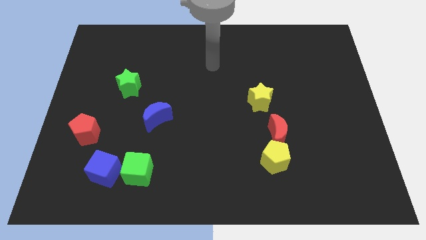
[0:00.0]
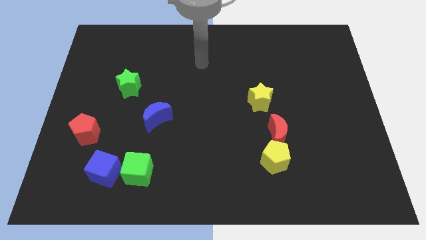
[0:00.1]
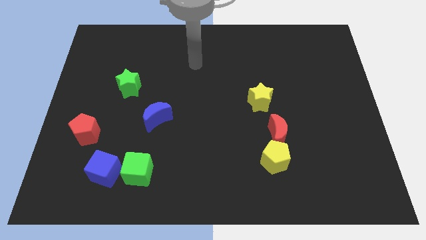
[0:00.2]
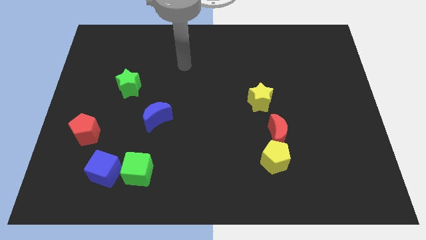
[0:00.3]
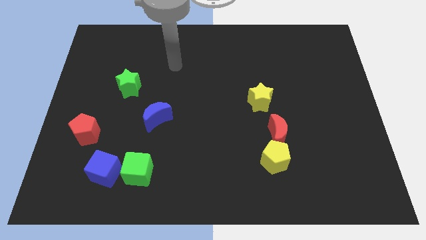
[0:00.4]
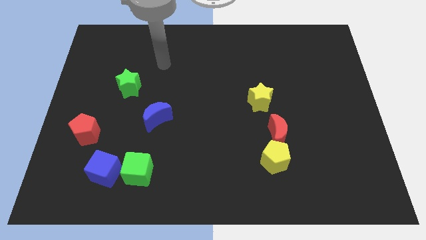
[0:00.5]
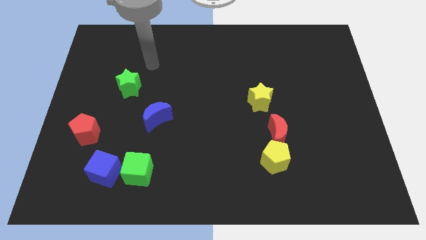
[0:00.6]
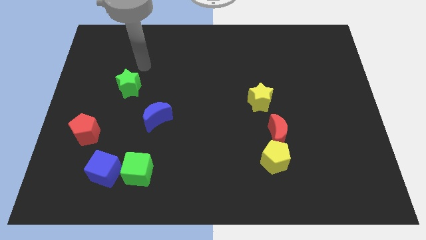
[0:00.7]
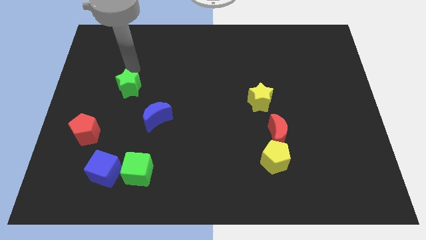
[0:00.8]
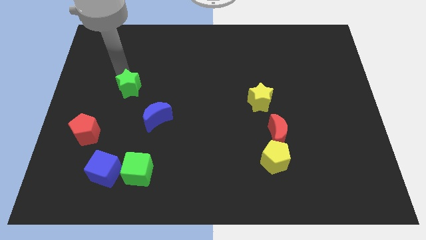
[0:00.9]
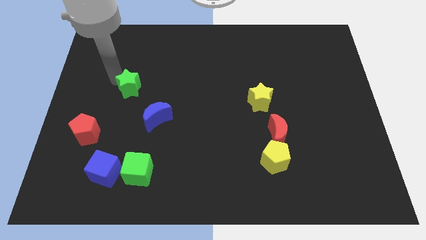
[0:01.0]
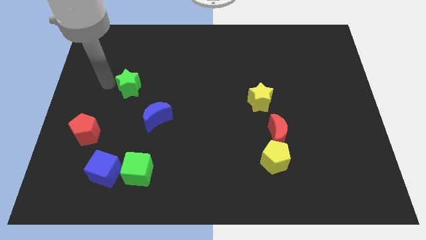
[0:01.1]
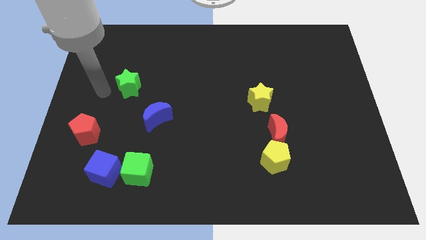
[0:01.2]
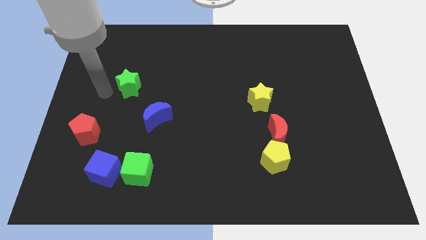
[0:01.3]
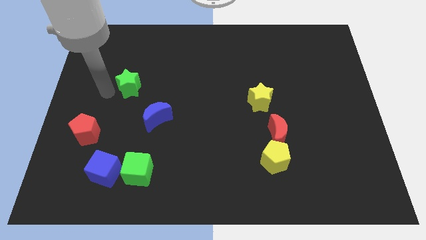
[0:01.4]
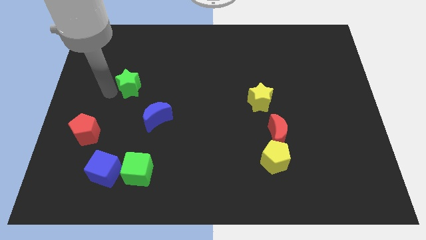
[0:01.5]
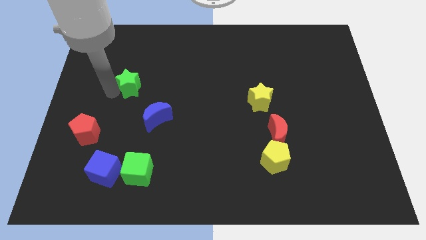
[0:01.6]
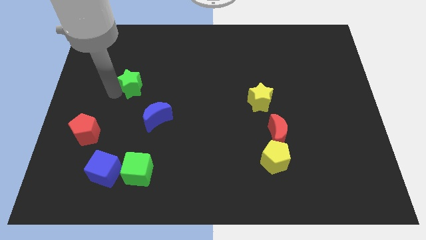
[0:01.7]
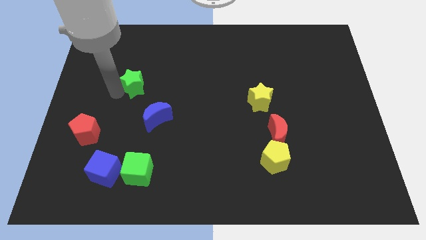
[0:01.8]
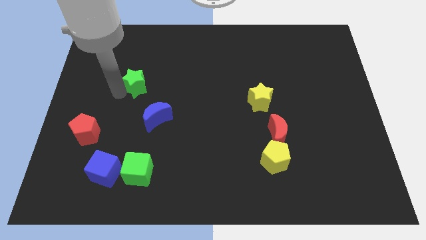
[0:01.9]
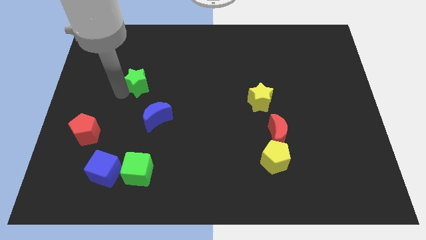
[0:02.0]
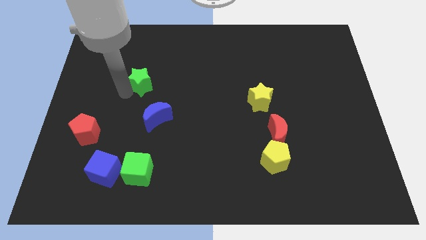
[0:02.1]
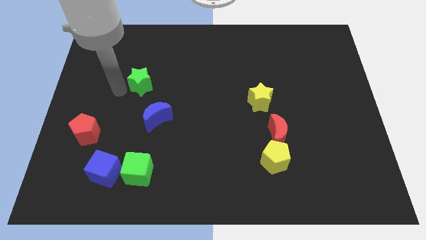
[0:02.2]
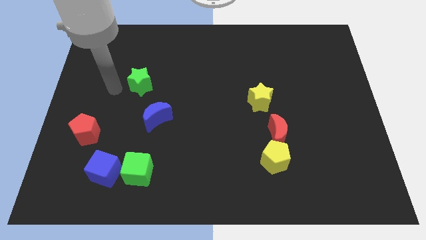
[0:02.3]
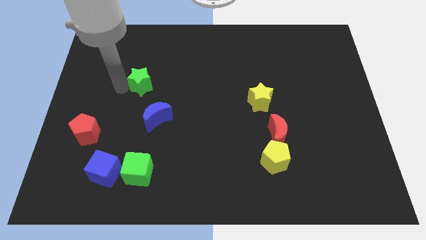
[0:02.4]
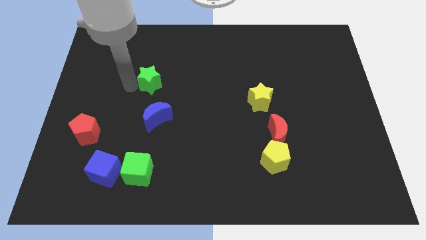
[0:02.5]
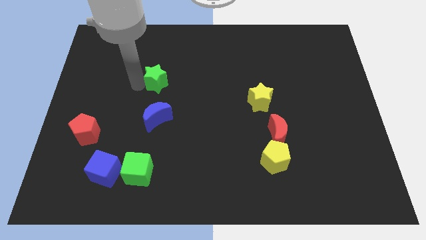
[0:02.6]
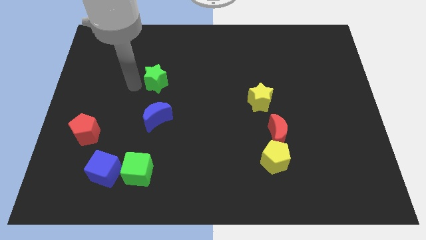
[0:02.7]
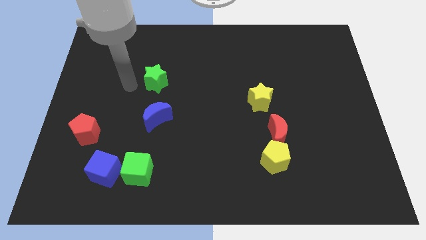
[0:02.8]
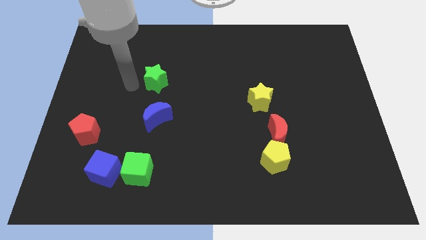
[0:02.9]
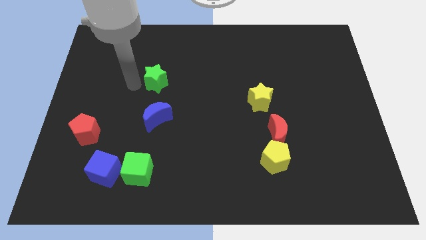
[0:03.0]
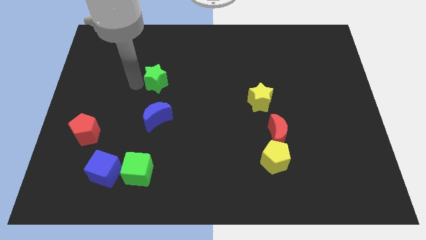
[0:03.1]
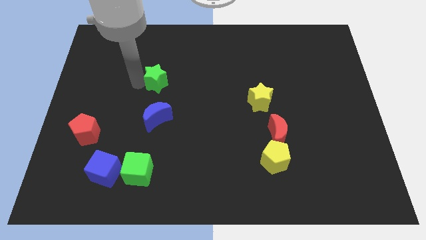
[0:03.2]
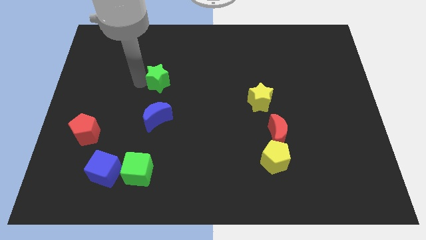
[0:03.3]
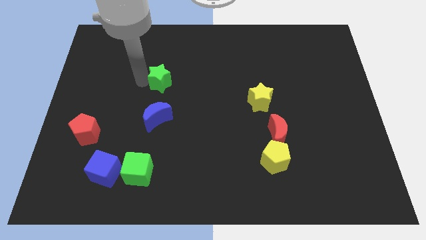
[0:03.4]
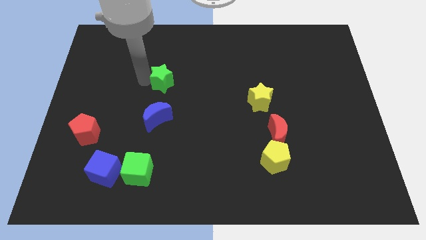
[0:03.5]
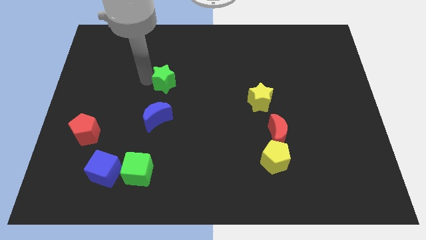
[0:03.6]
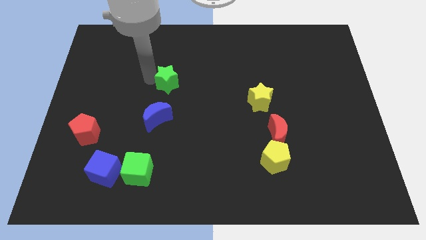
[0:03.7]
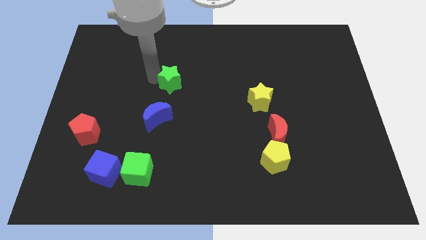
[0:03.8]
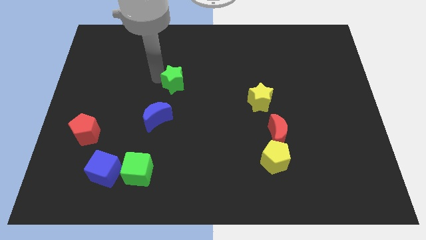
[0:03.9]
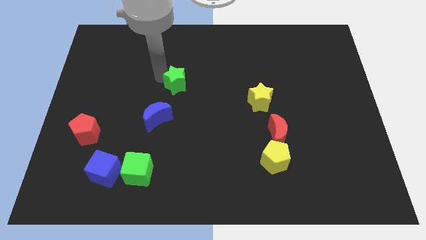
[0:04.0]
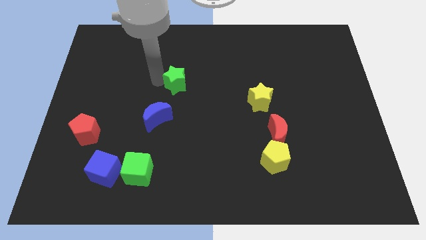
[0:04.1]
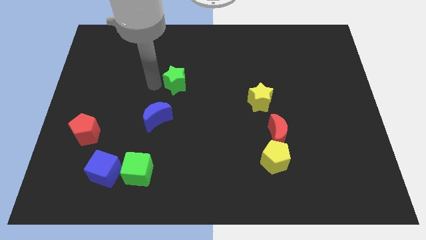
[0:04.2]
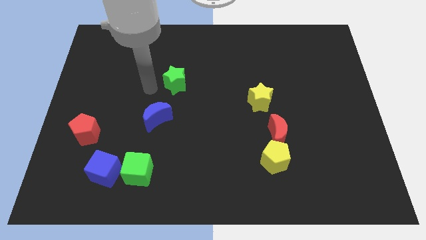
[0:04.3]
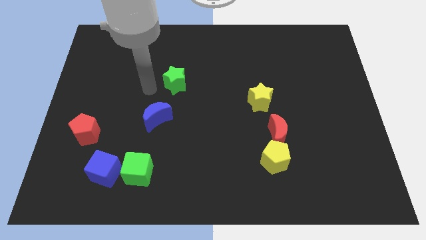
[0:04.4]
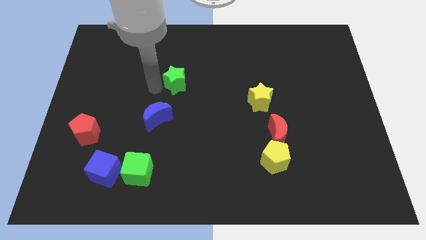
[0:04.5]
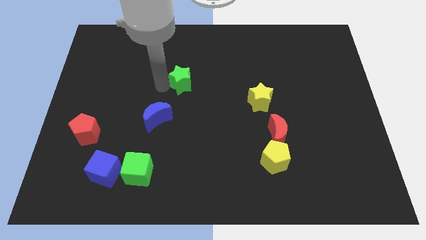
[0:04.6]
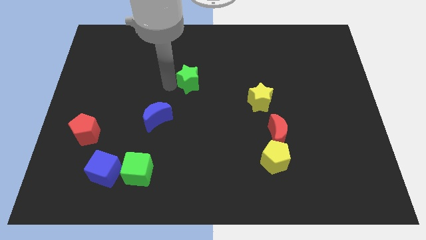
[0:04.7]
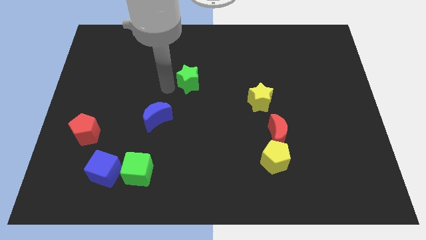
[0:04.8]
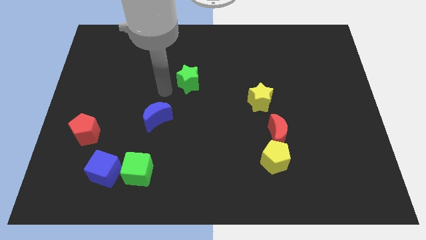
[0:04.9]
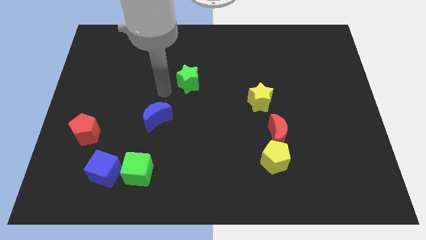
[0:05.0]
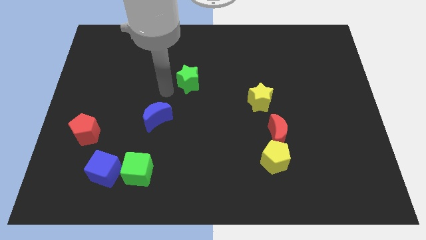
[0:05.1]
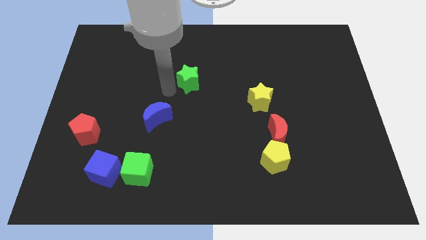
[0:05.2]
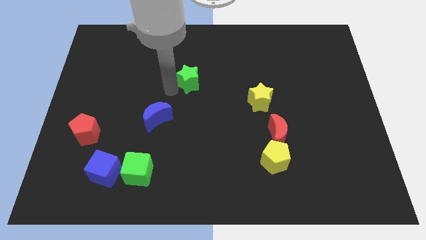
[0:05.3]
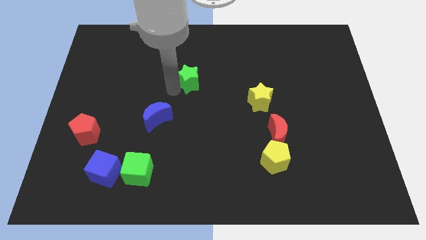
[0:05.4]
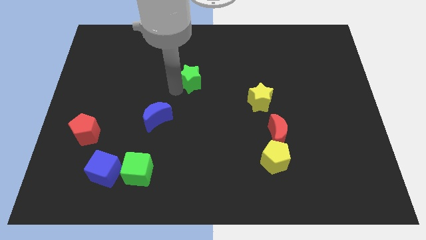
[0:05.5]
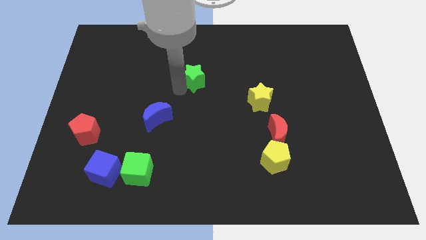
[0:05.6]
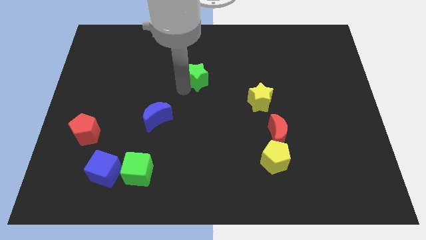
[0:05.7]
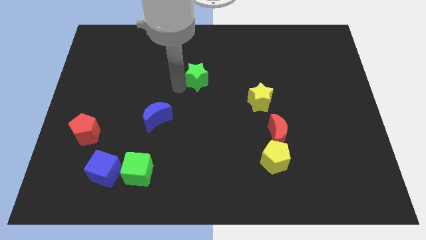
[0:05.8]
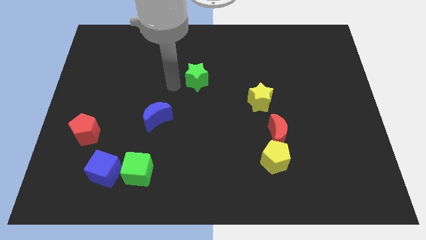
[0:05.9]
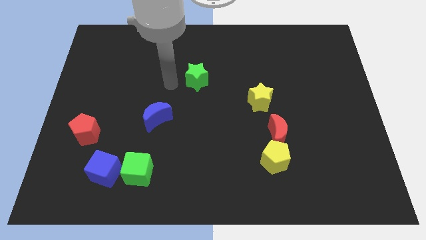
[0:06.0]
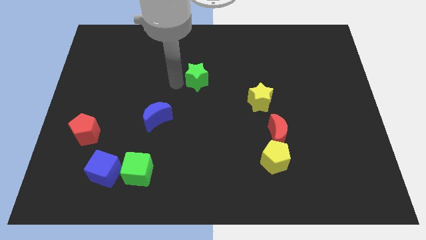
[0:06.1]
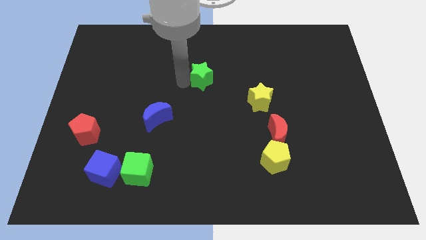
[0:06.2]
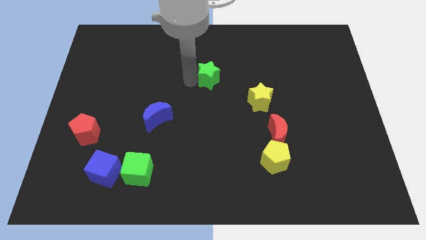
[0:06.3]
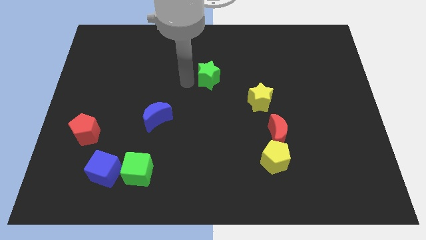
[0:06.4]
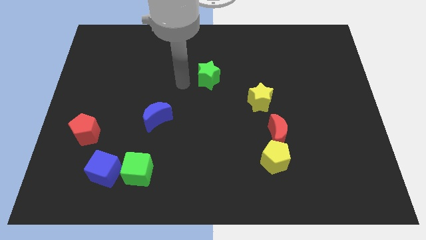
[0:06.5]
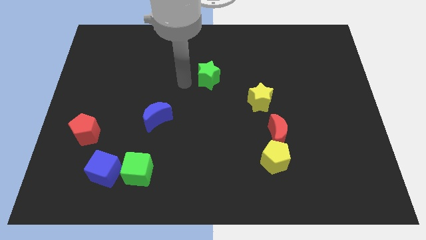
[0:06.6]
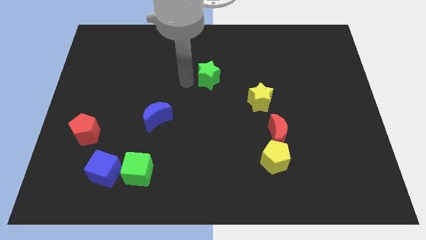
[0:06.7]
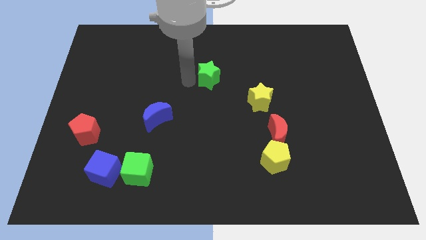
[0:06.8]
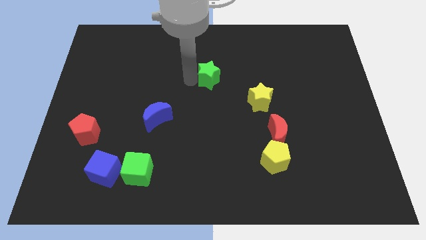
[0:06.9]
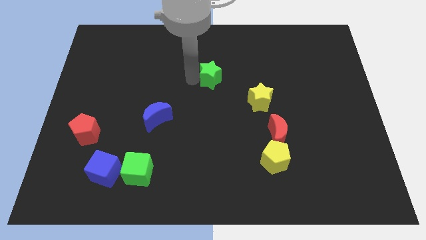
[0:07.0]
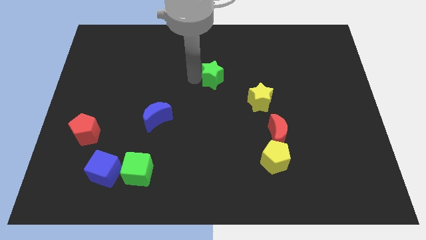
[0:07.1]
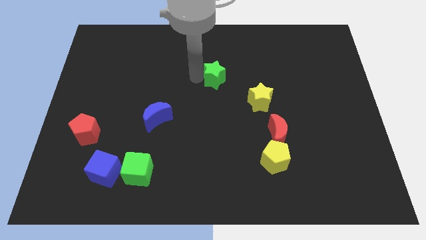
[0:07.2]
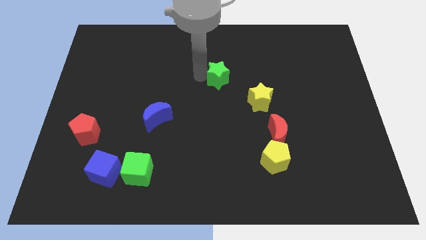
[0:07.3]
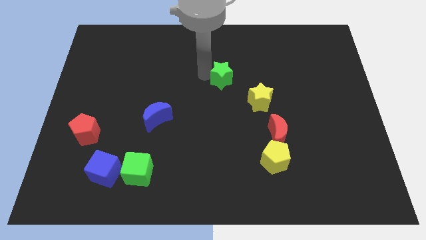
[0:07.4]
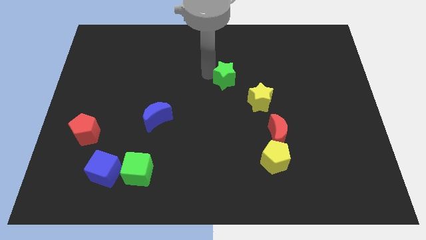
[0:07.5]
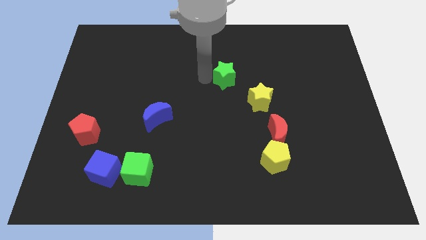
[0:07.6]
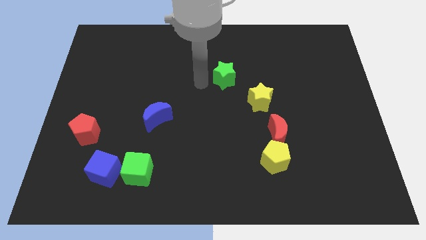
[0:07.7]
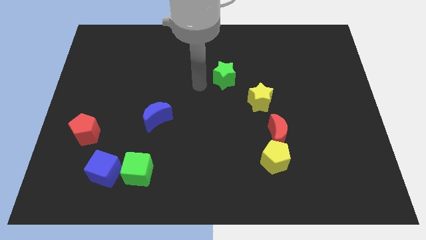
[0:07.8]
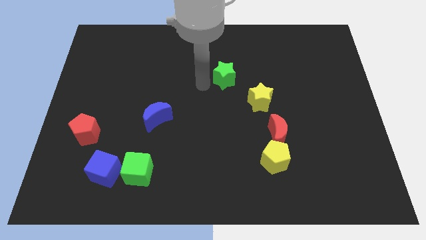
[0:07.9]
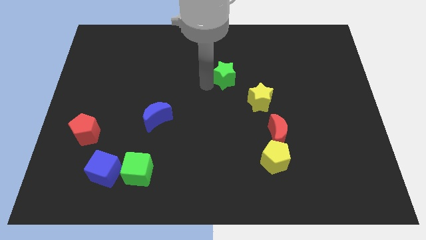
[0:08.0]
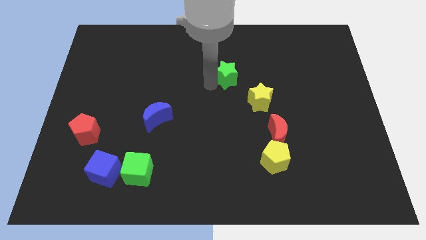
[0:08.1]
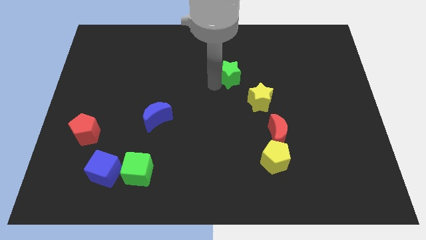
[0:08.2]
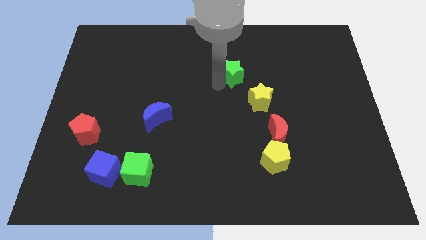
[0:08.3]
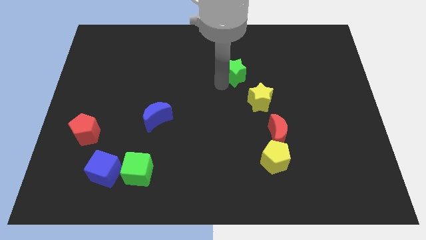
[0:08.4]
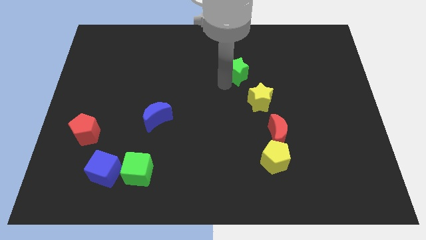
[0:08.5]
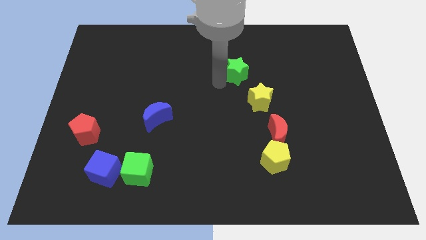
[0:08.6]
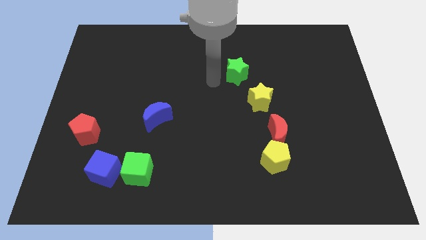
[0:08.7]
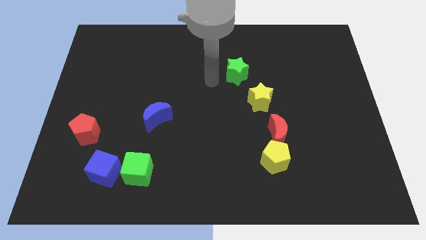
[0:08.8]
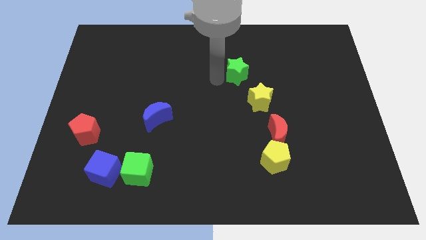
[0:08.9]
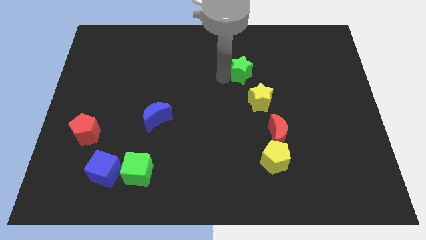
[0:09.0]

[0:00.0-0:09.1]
push the green star above the yellow star
